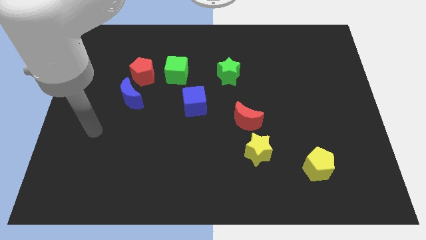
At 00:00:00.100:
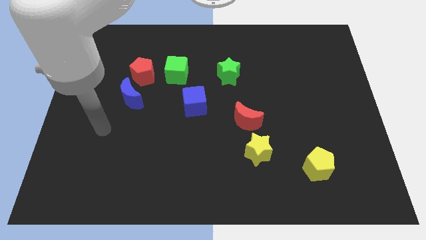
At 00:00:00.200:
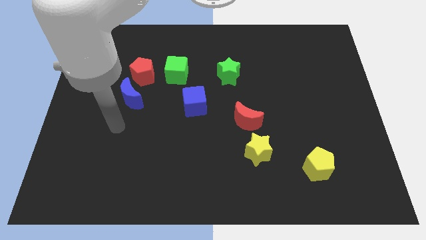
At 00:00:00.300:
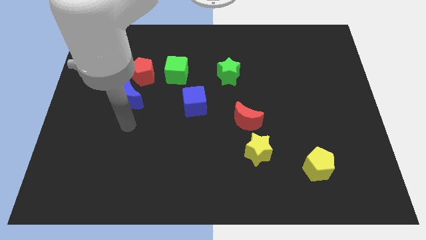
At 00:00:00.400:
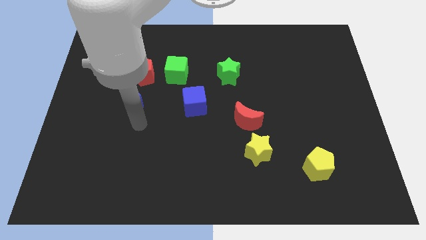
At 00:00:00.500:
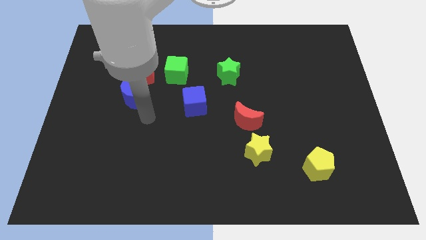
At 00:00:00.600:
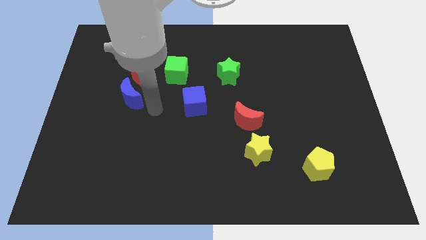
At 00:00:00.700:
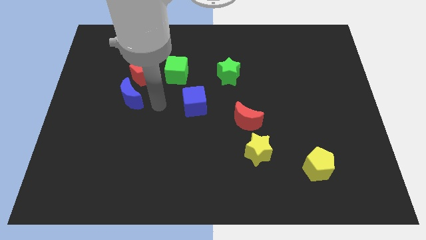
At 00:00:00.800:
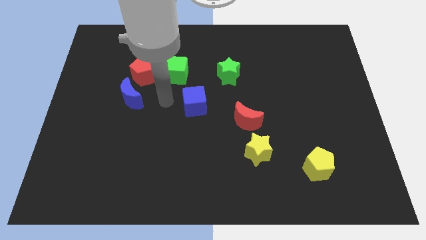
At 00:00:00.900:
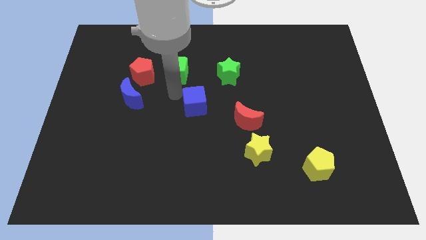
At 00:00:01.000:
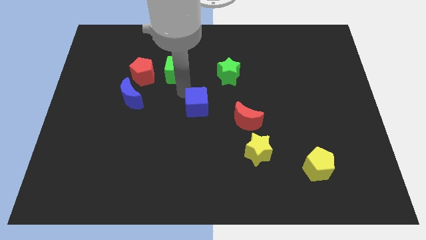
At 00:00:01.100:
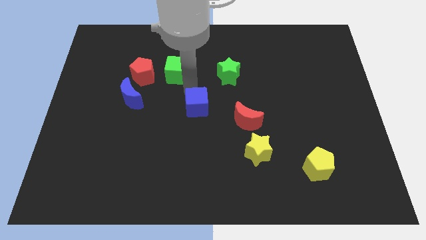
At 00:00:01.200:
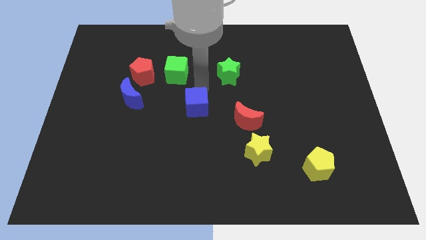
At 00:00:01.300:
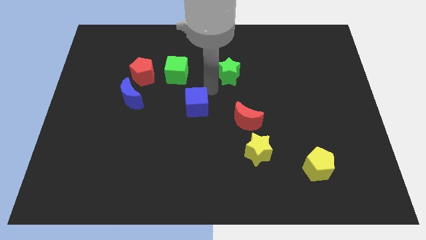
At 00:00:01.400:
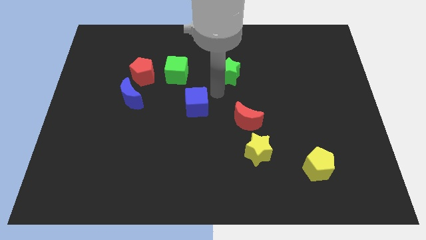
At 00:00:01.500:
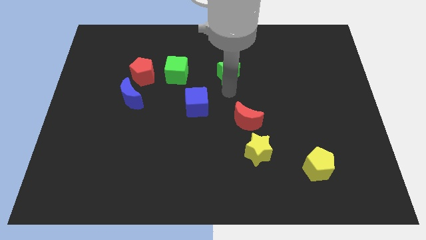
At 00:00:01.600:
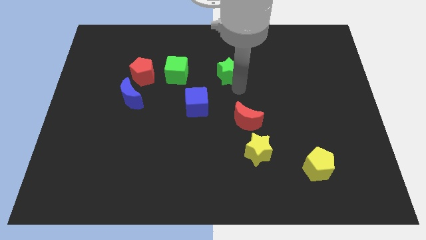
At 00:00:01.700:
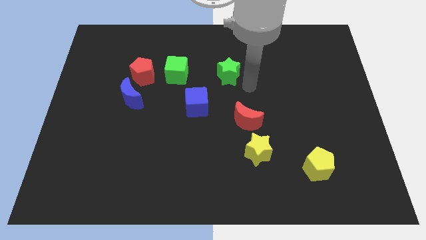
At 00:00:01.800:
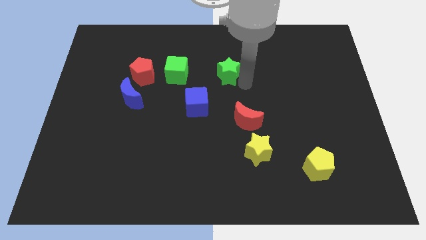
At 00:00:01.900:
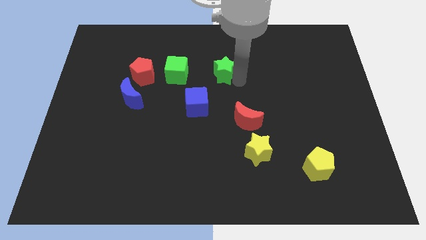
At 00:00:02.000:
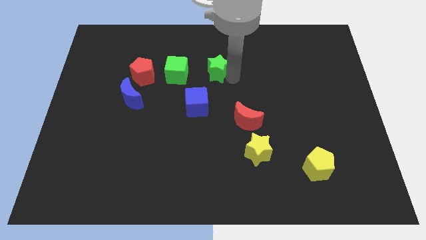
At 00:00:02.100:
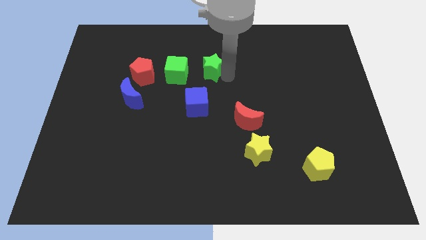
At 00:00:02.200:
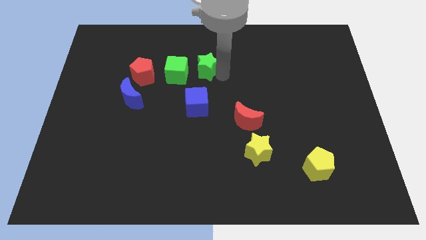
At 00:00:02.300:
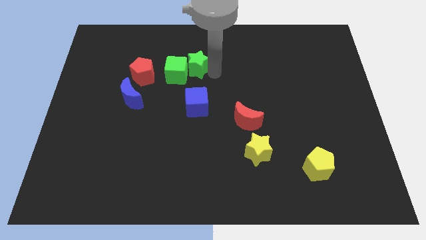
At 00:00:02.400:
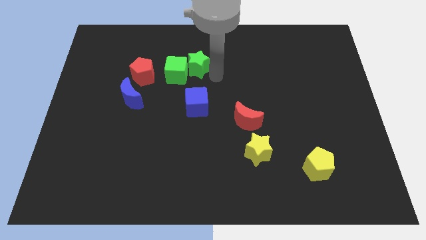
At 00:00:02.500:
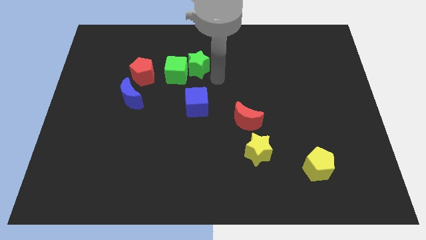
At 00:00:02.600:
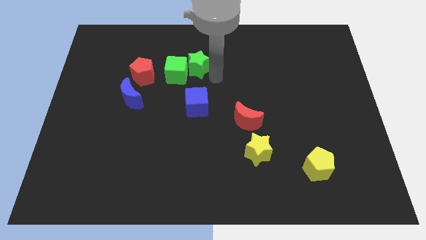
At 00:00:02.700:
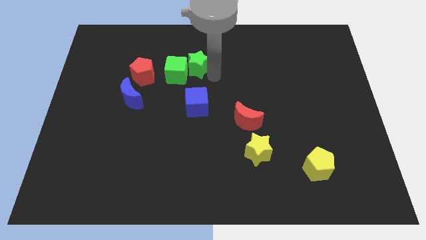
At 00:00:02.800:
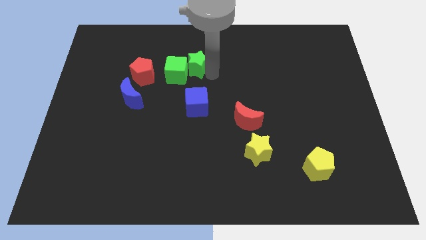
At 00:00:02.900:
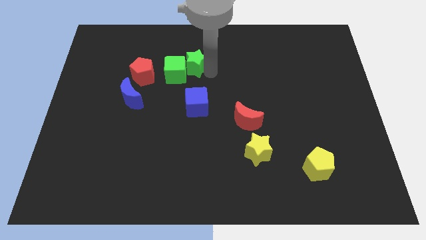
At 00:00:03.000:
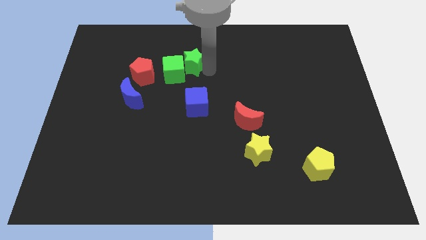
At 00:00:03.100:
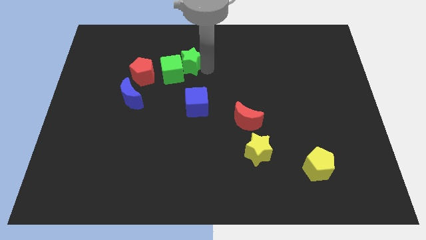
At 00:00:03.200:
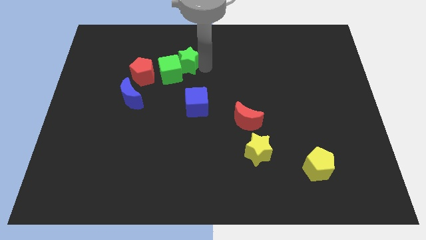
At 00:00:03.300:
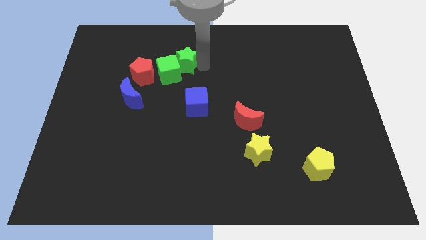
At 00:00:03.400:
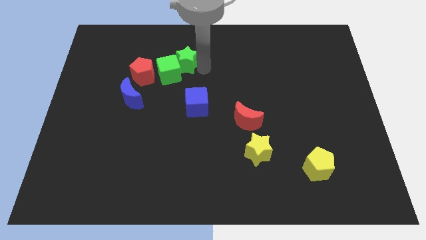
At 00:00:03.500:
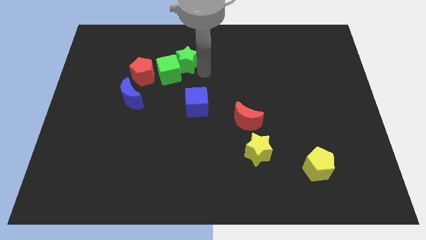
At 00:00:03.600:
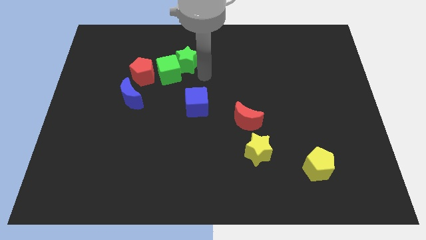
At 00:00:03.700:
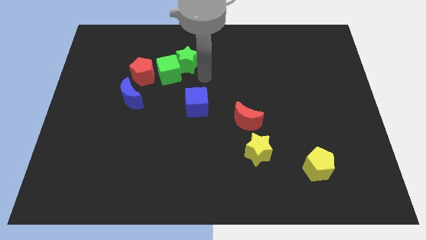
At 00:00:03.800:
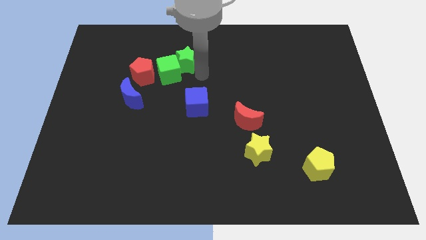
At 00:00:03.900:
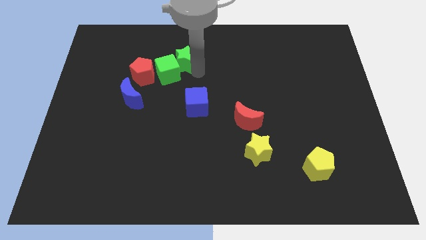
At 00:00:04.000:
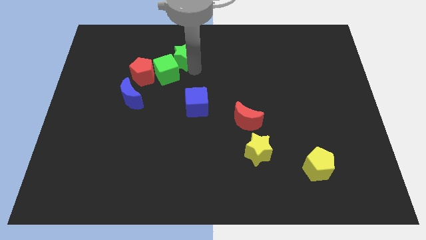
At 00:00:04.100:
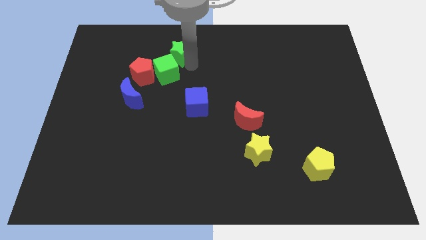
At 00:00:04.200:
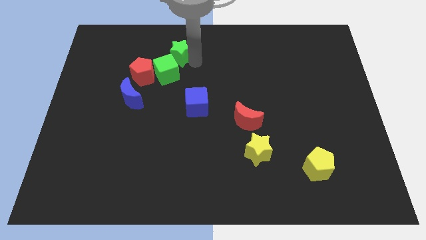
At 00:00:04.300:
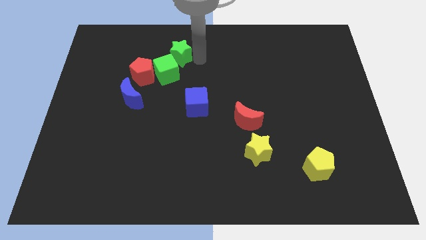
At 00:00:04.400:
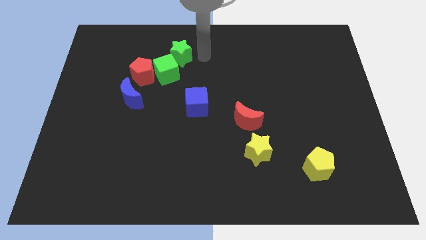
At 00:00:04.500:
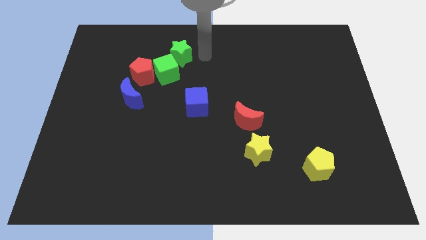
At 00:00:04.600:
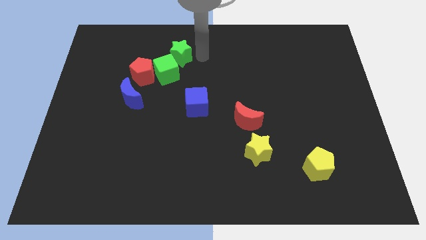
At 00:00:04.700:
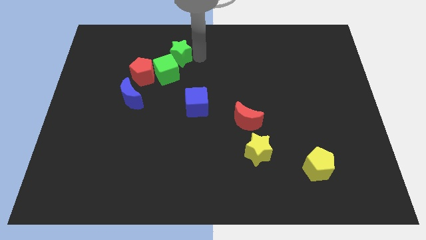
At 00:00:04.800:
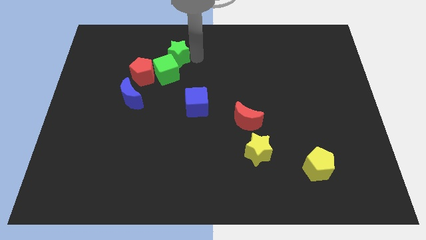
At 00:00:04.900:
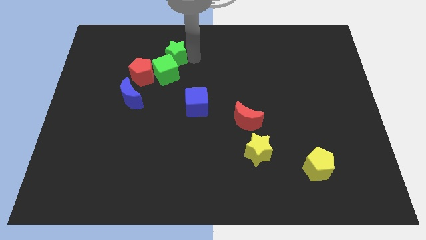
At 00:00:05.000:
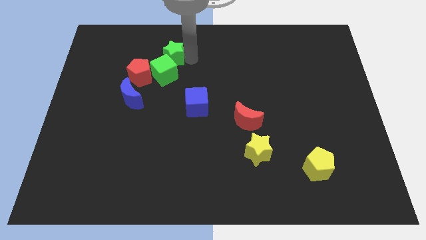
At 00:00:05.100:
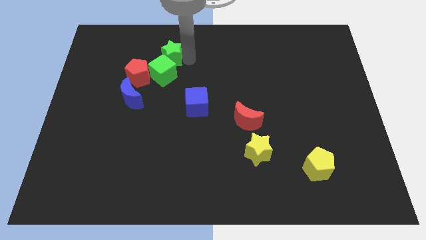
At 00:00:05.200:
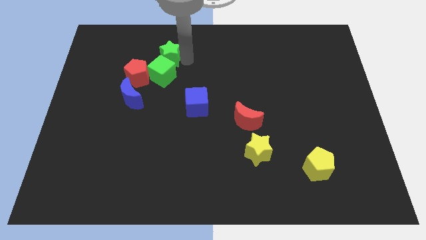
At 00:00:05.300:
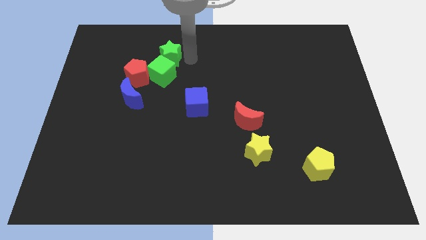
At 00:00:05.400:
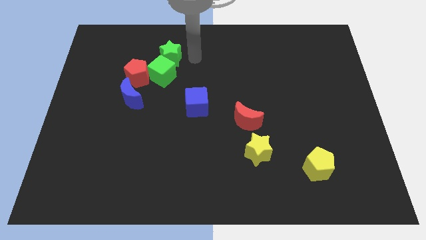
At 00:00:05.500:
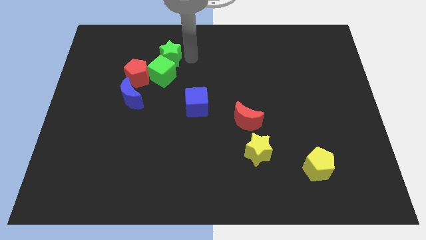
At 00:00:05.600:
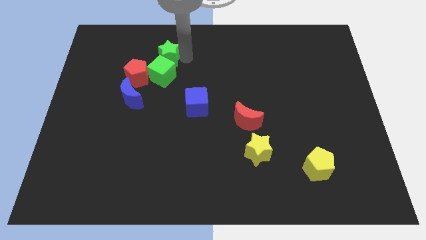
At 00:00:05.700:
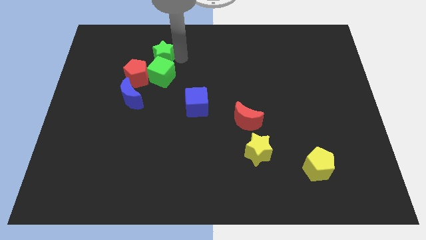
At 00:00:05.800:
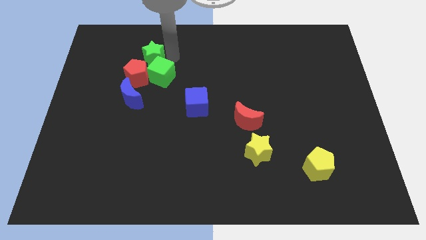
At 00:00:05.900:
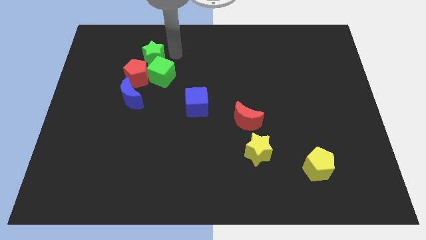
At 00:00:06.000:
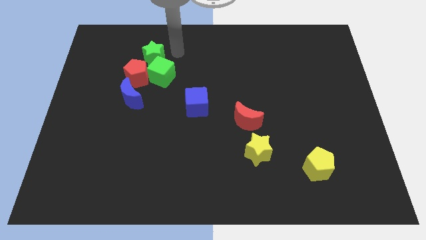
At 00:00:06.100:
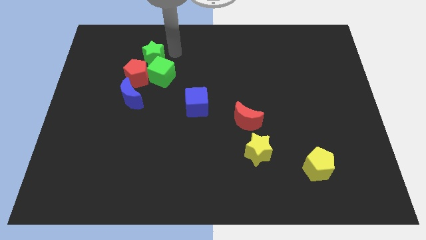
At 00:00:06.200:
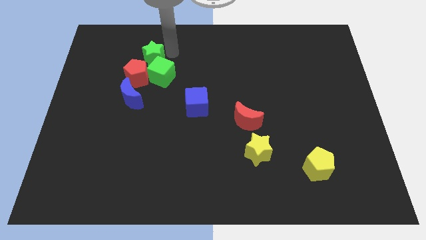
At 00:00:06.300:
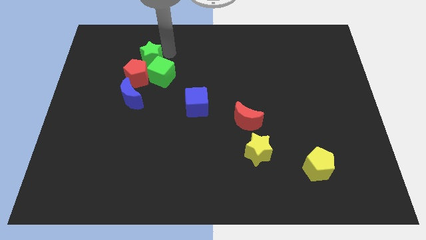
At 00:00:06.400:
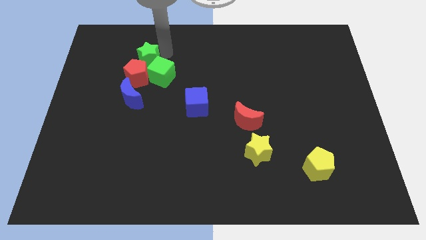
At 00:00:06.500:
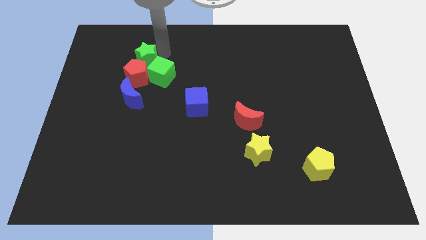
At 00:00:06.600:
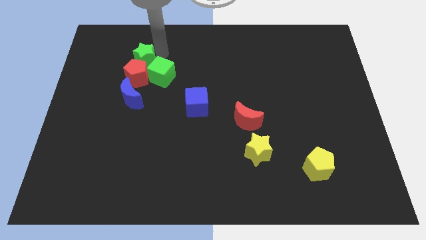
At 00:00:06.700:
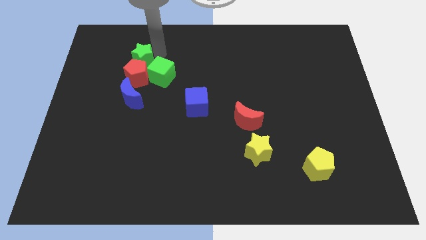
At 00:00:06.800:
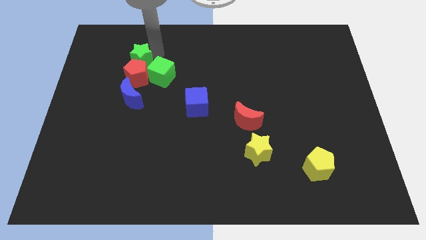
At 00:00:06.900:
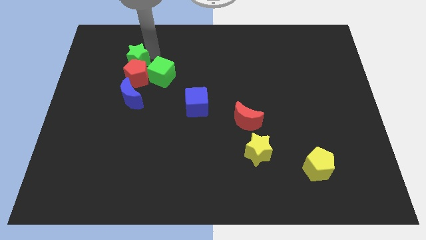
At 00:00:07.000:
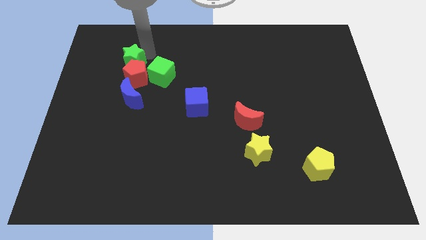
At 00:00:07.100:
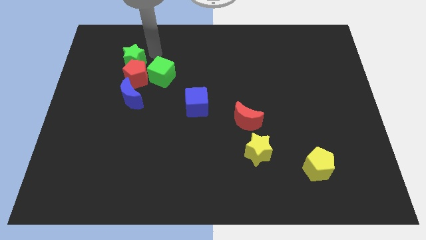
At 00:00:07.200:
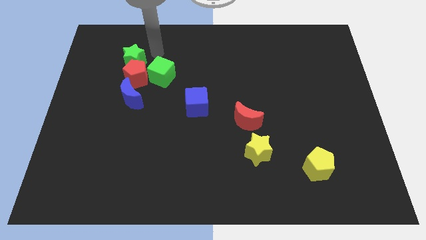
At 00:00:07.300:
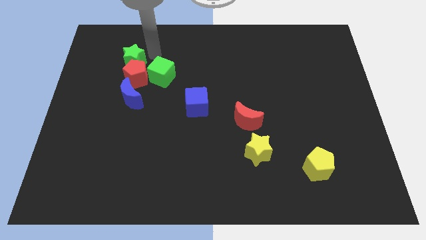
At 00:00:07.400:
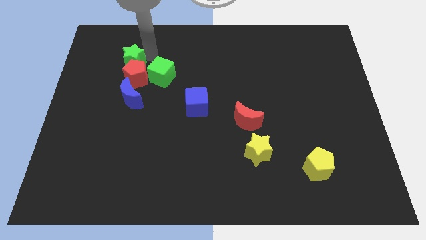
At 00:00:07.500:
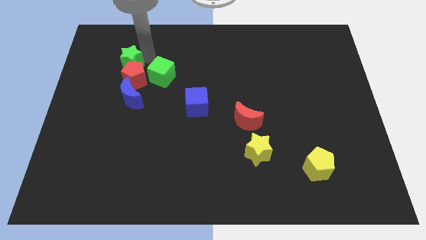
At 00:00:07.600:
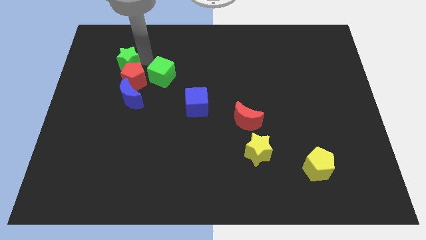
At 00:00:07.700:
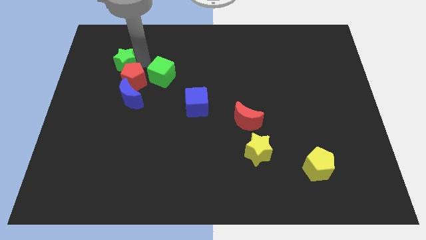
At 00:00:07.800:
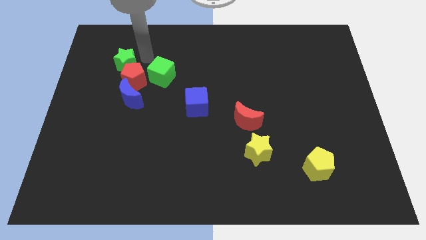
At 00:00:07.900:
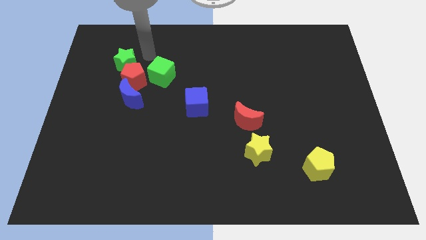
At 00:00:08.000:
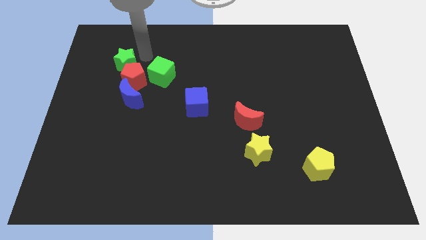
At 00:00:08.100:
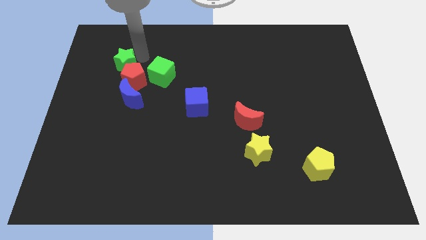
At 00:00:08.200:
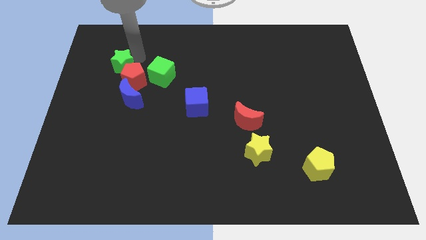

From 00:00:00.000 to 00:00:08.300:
move the green star to the left of the red pentagon
